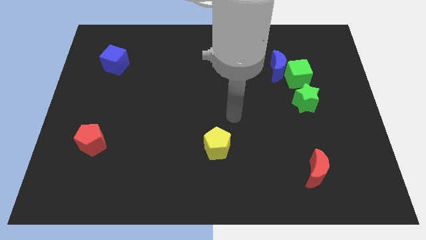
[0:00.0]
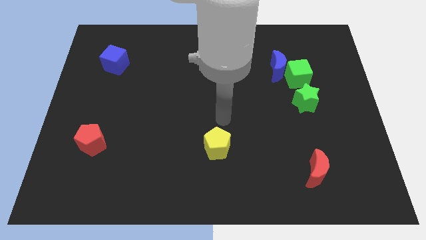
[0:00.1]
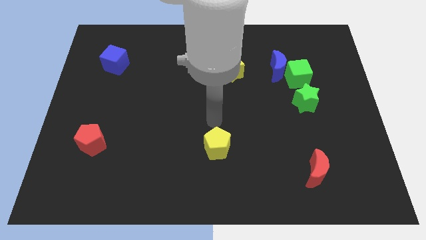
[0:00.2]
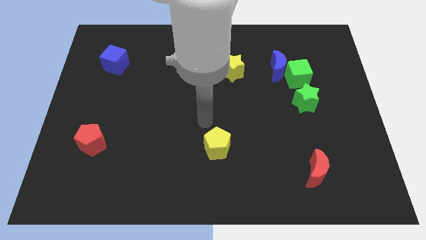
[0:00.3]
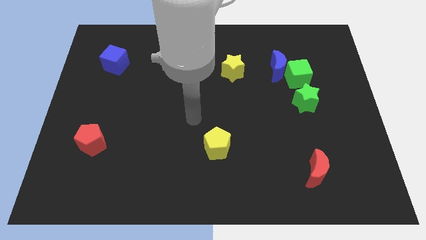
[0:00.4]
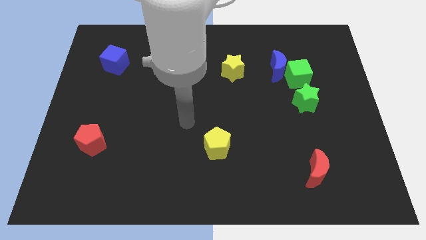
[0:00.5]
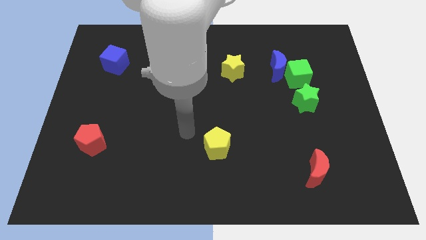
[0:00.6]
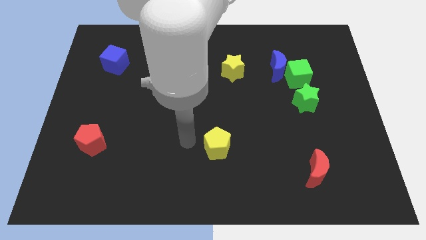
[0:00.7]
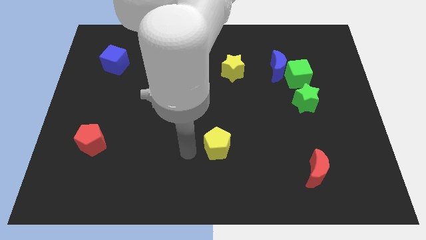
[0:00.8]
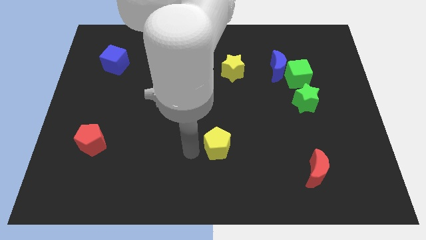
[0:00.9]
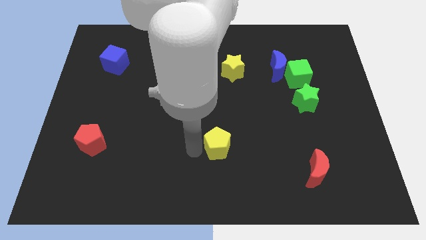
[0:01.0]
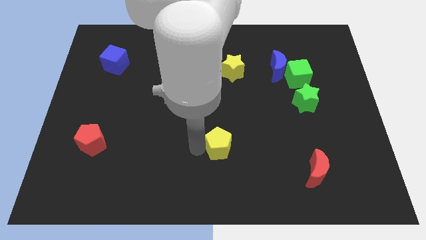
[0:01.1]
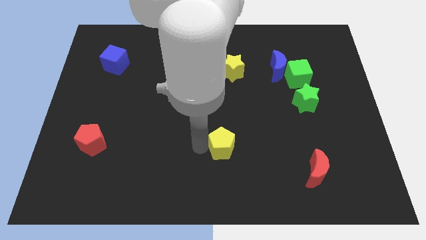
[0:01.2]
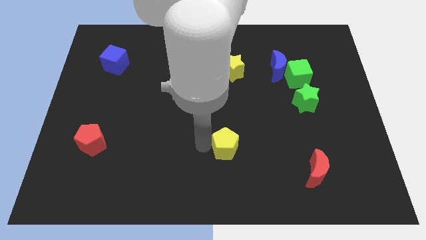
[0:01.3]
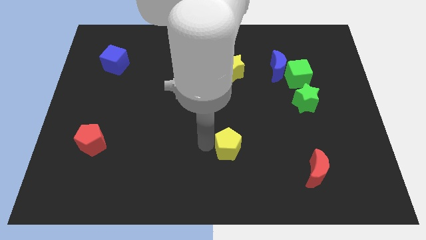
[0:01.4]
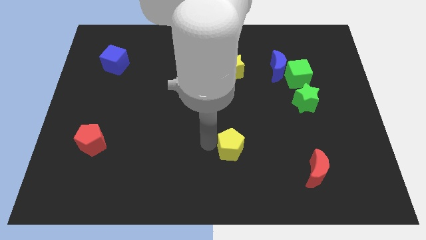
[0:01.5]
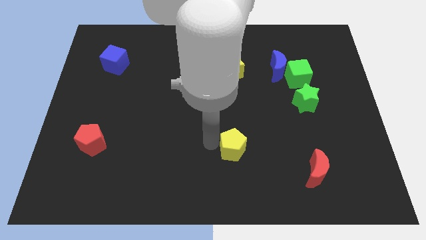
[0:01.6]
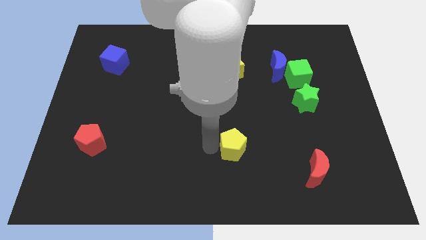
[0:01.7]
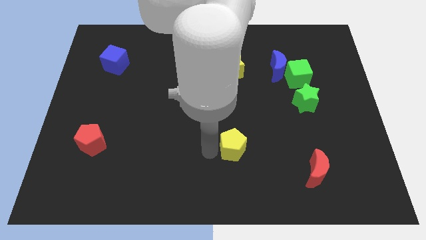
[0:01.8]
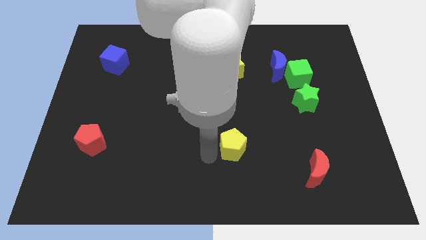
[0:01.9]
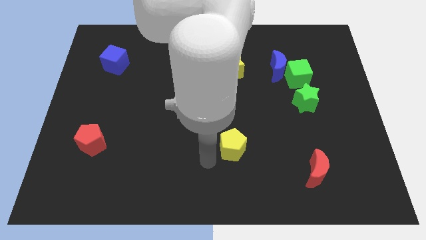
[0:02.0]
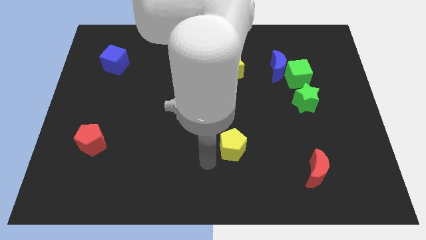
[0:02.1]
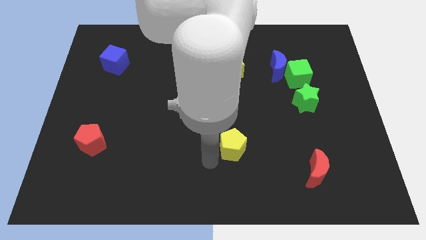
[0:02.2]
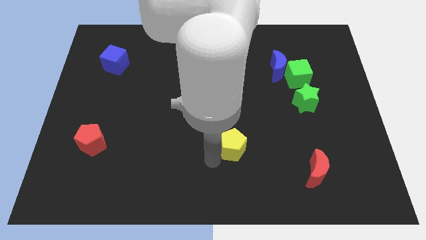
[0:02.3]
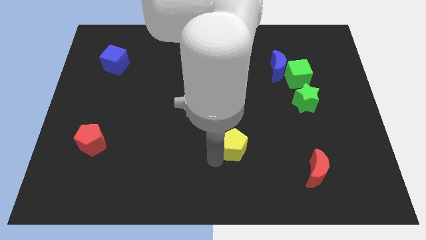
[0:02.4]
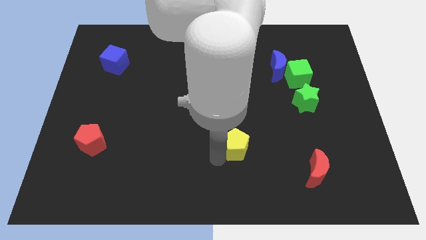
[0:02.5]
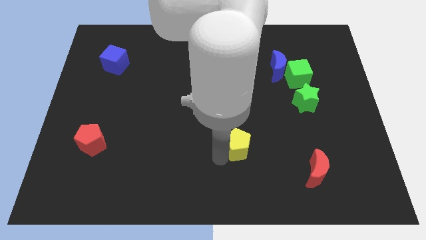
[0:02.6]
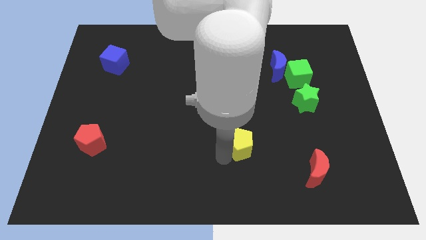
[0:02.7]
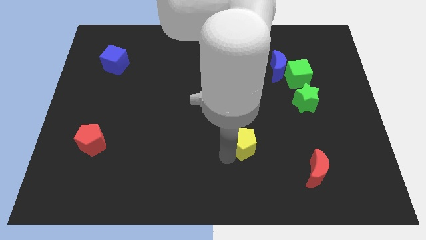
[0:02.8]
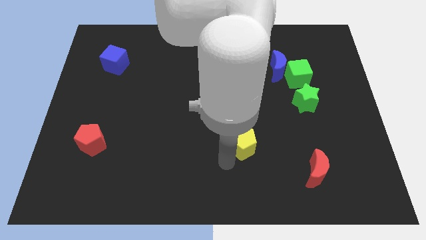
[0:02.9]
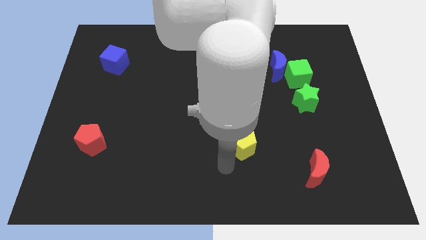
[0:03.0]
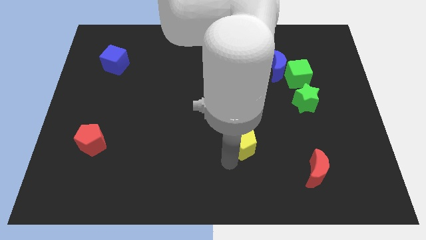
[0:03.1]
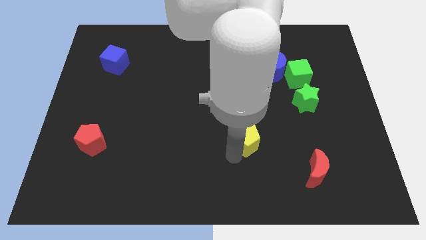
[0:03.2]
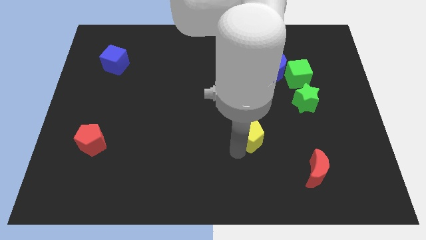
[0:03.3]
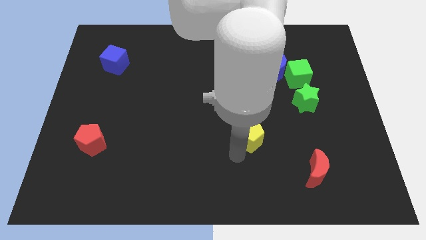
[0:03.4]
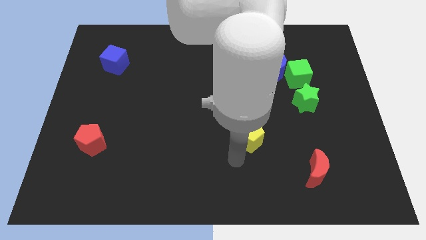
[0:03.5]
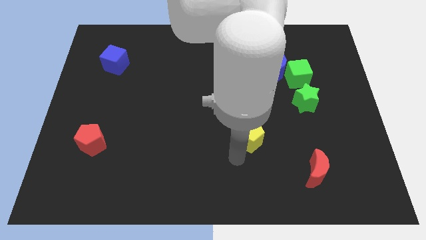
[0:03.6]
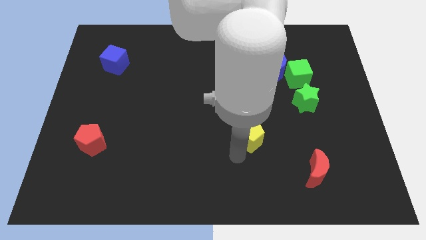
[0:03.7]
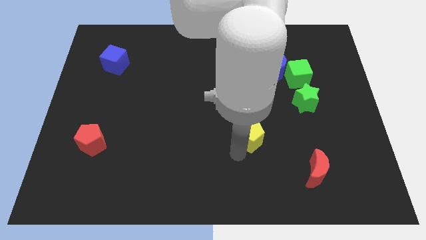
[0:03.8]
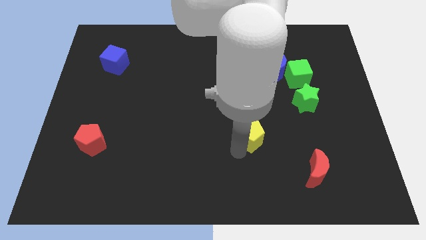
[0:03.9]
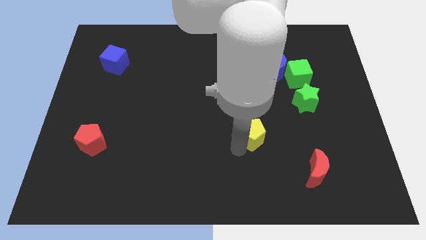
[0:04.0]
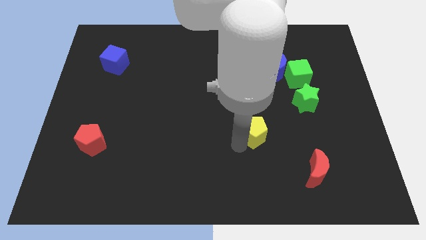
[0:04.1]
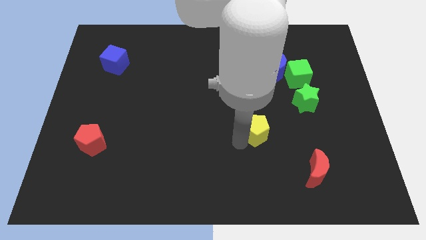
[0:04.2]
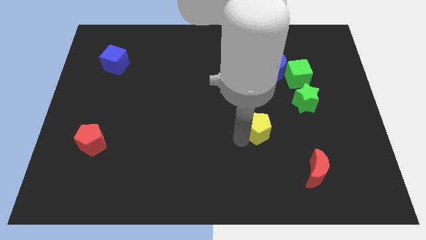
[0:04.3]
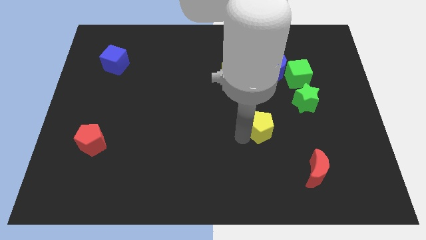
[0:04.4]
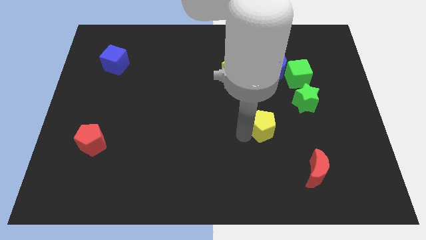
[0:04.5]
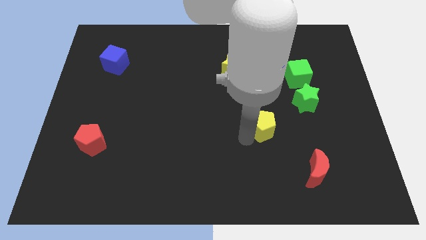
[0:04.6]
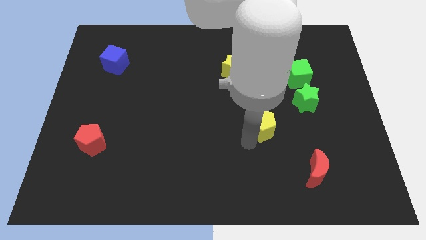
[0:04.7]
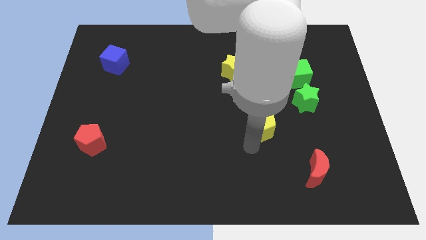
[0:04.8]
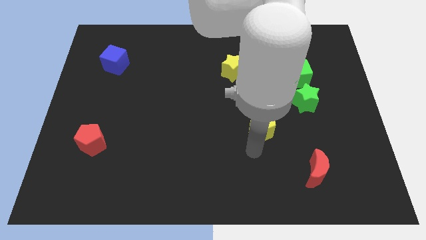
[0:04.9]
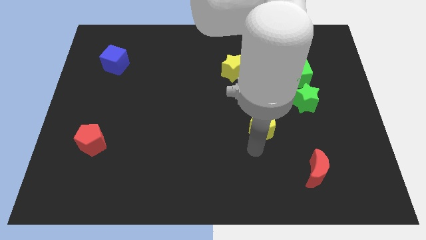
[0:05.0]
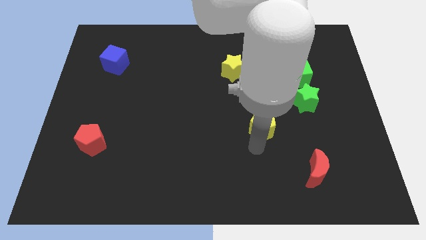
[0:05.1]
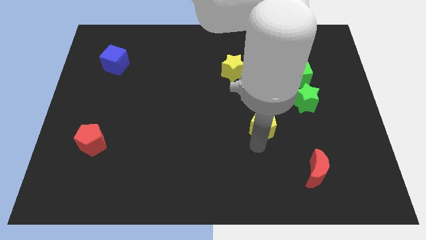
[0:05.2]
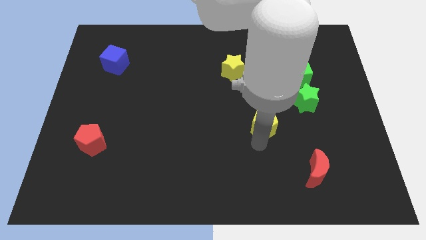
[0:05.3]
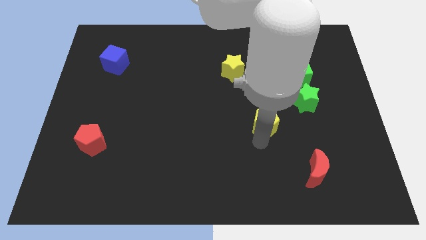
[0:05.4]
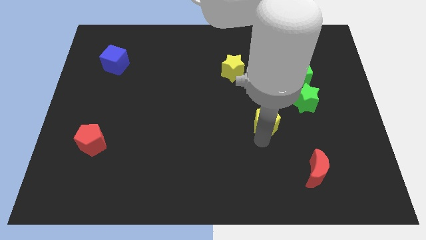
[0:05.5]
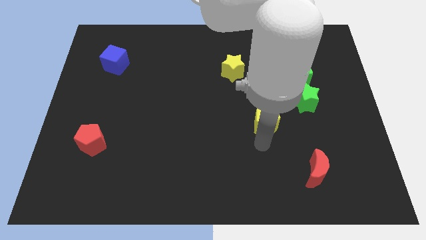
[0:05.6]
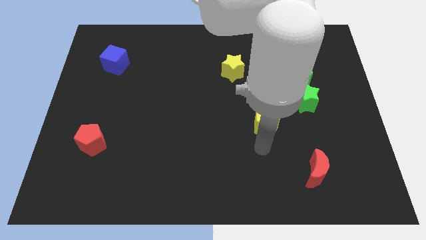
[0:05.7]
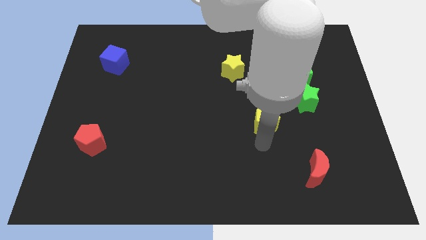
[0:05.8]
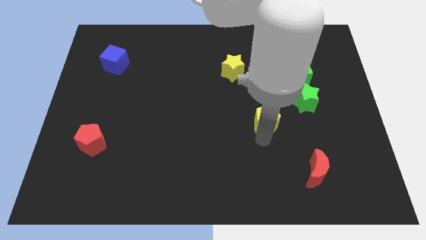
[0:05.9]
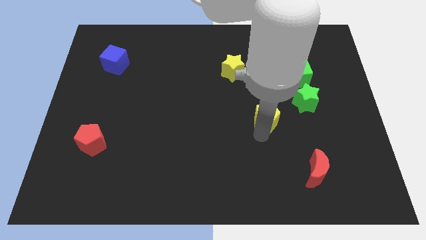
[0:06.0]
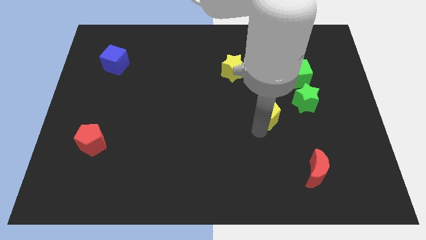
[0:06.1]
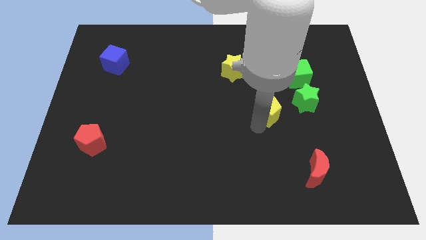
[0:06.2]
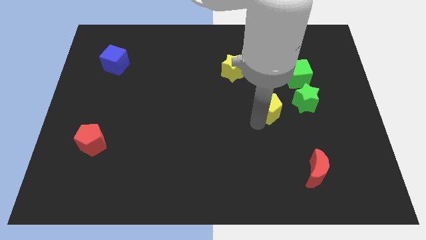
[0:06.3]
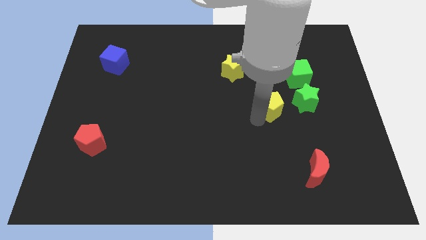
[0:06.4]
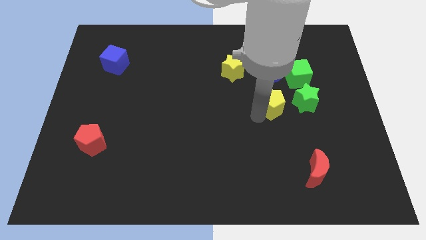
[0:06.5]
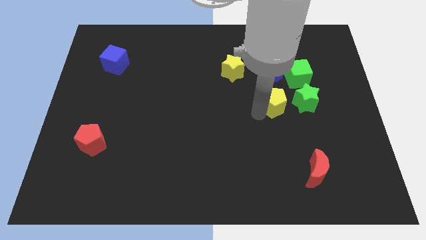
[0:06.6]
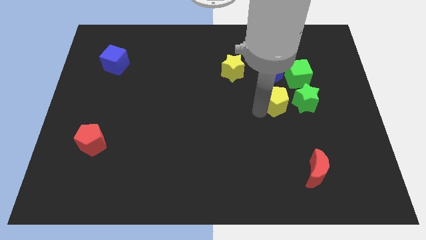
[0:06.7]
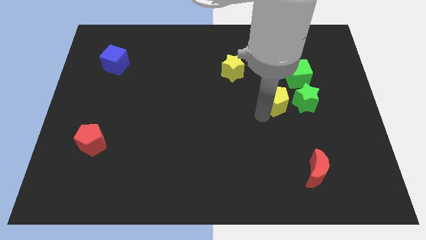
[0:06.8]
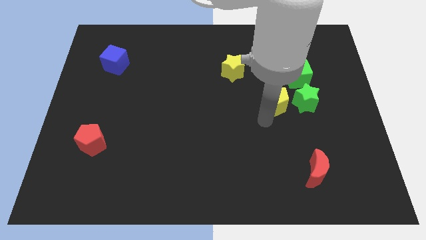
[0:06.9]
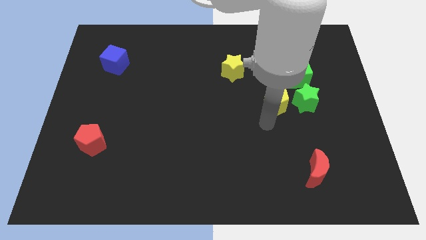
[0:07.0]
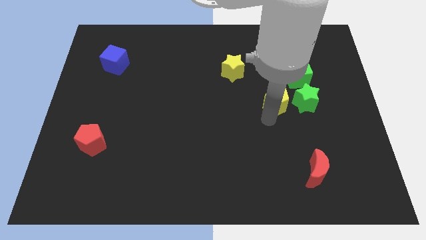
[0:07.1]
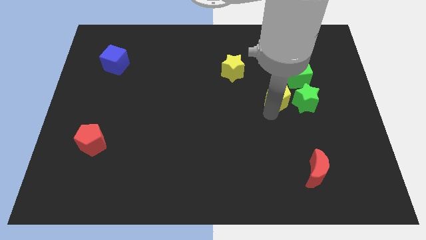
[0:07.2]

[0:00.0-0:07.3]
slide the yellow pentagon diagonally up and to the left of the green star

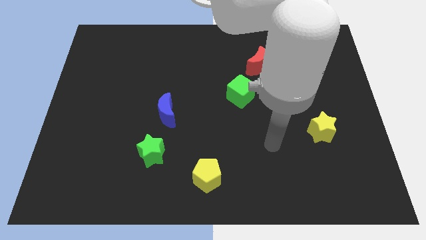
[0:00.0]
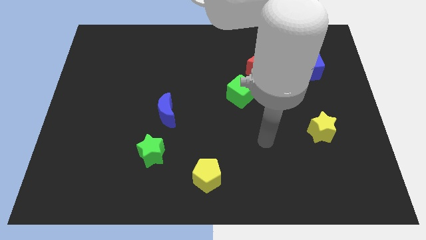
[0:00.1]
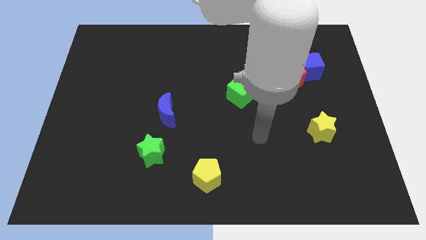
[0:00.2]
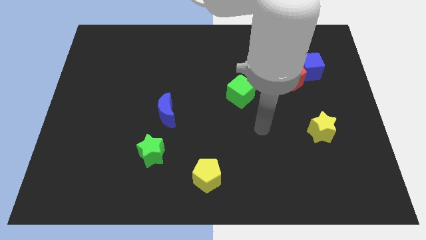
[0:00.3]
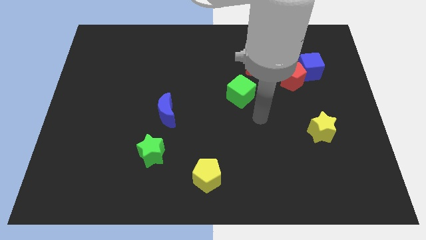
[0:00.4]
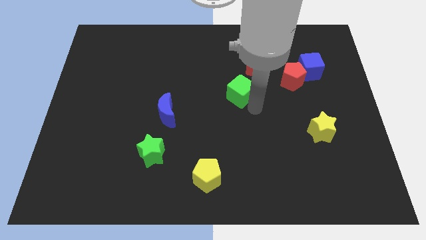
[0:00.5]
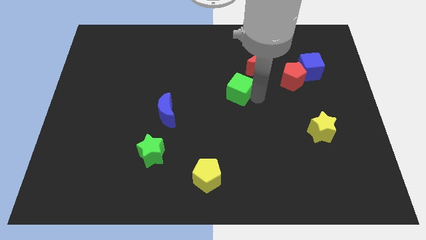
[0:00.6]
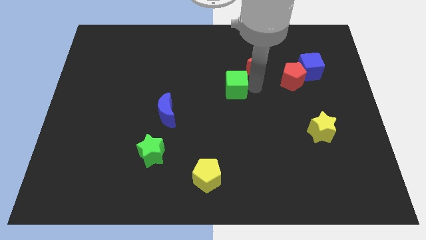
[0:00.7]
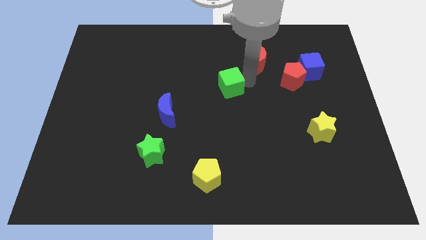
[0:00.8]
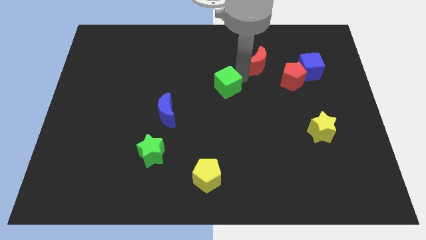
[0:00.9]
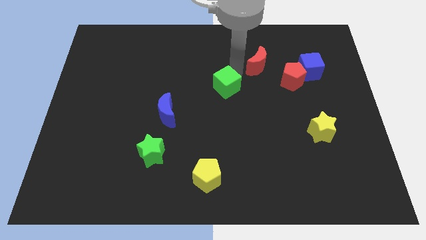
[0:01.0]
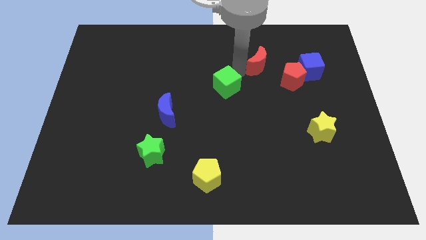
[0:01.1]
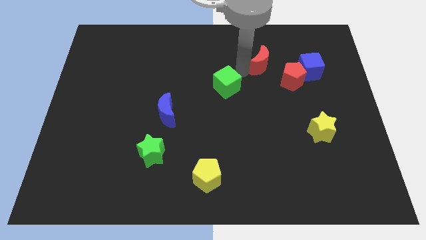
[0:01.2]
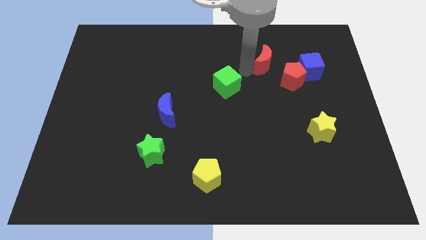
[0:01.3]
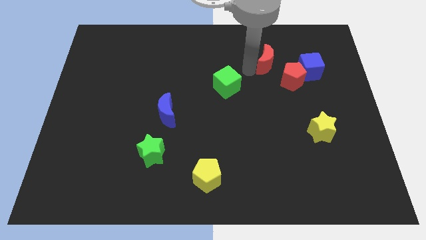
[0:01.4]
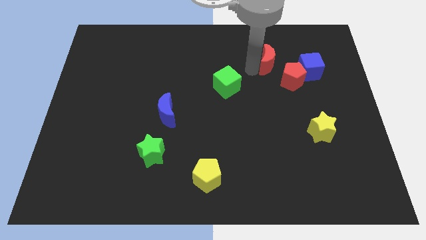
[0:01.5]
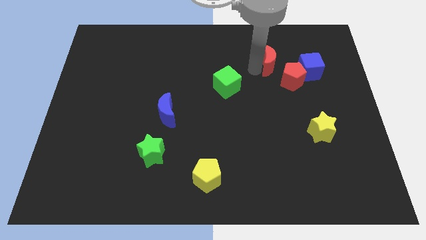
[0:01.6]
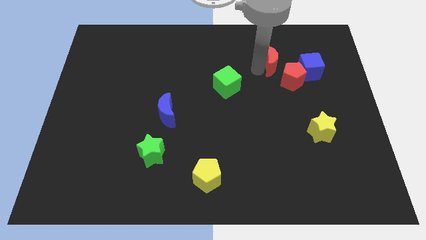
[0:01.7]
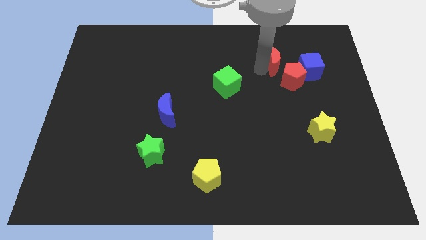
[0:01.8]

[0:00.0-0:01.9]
move the red moon diagonally up and to the left of the blue cube
